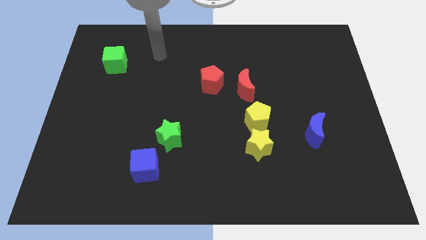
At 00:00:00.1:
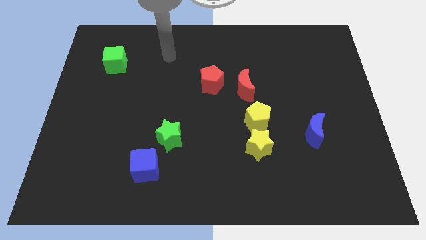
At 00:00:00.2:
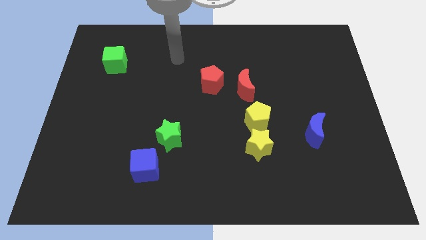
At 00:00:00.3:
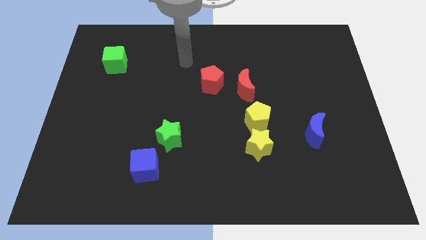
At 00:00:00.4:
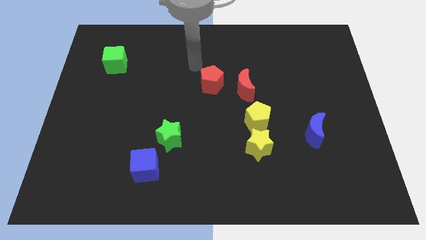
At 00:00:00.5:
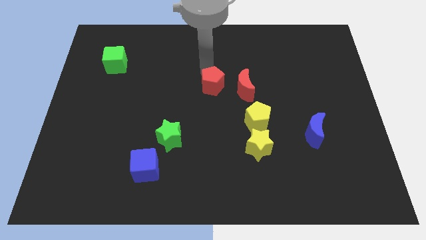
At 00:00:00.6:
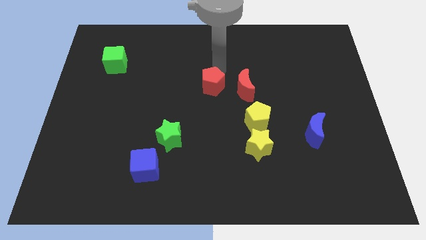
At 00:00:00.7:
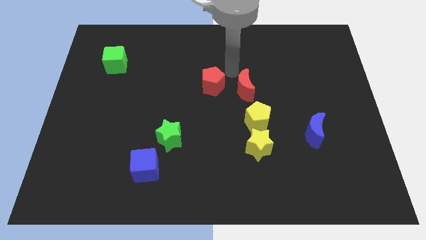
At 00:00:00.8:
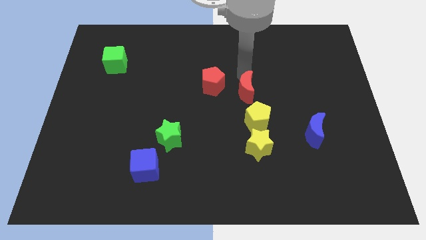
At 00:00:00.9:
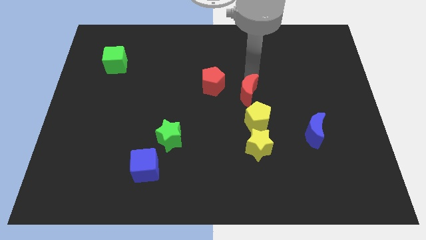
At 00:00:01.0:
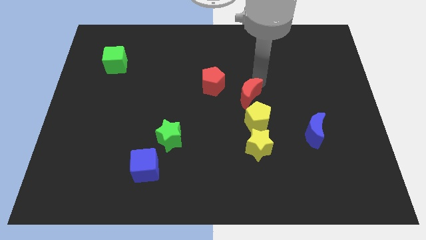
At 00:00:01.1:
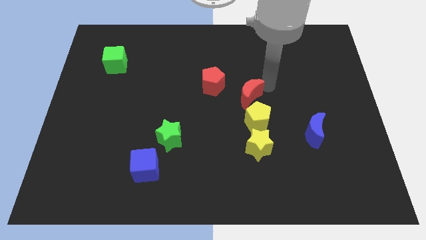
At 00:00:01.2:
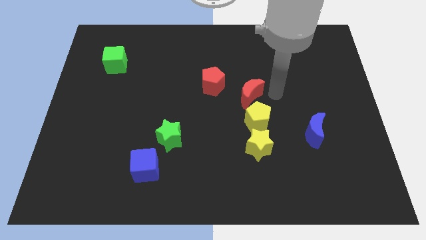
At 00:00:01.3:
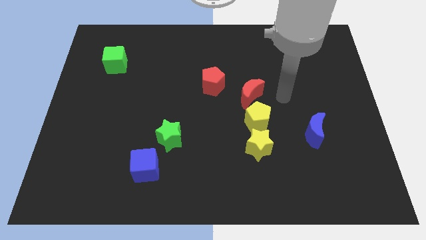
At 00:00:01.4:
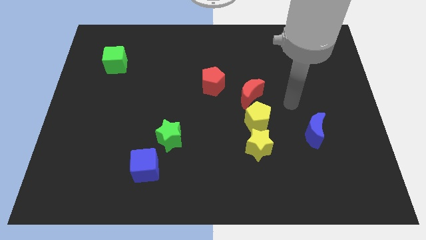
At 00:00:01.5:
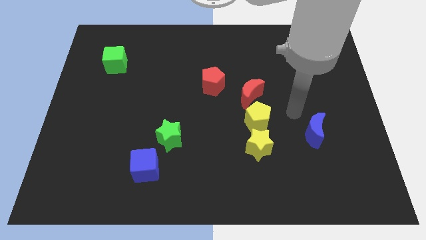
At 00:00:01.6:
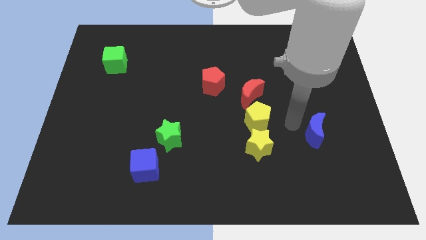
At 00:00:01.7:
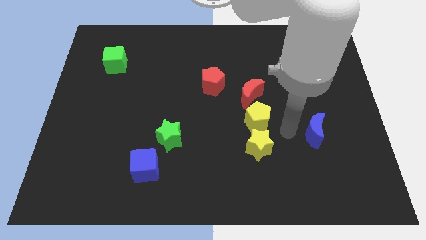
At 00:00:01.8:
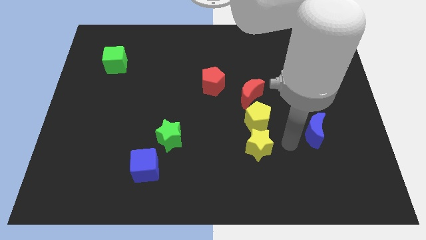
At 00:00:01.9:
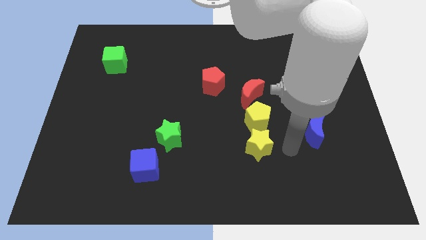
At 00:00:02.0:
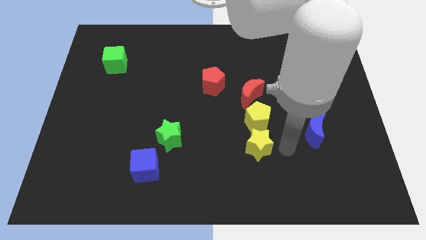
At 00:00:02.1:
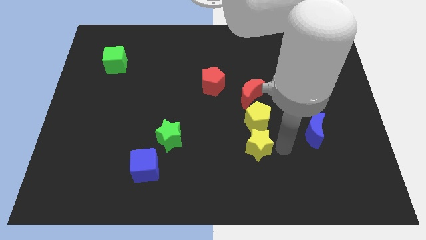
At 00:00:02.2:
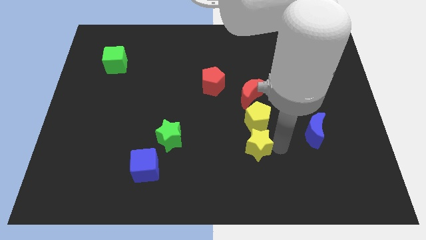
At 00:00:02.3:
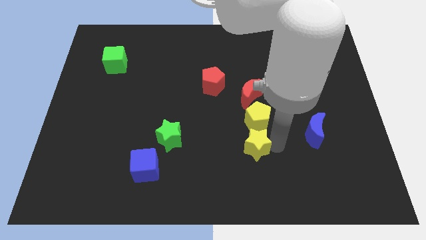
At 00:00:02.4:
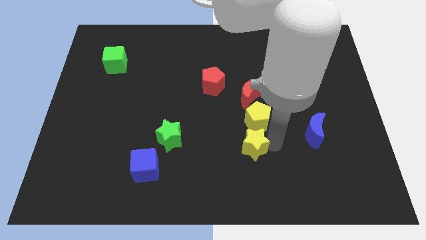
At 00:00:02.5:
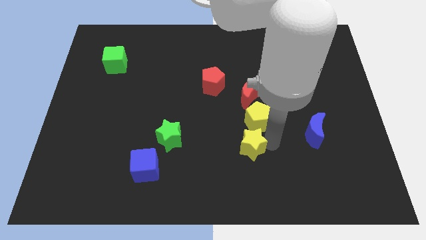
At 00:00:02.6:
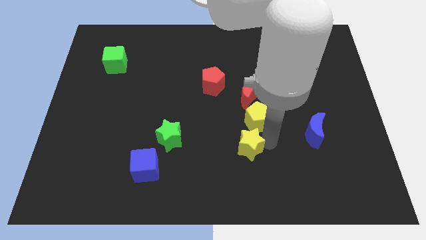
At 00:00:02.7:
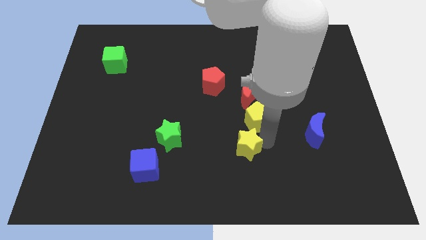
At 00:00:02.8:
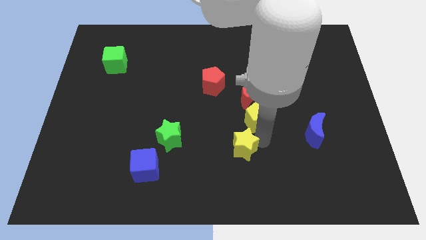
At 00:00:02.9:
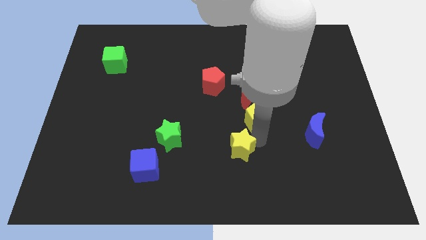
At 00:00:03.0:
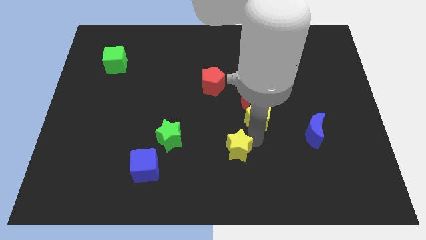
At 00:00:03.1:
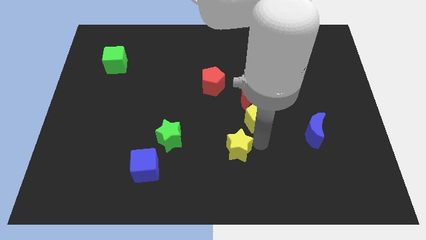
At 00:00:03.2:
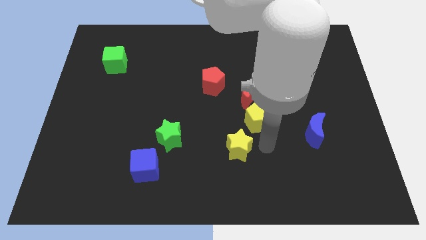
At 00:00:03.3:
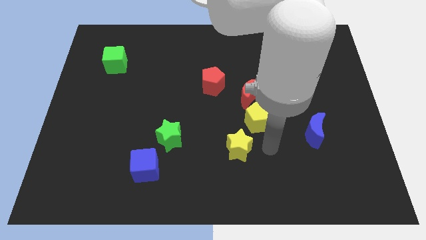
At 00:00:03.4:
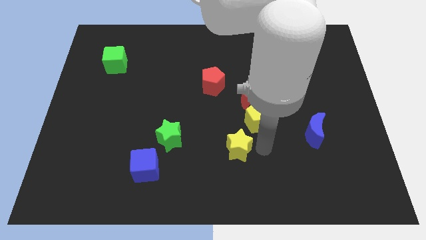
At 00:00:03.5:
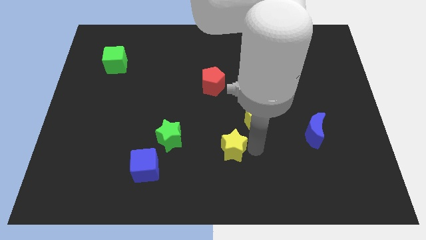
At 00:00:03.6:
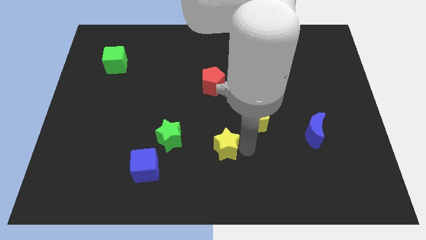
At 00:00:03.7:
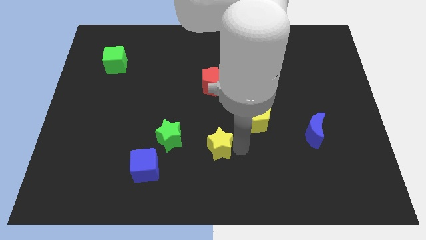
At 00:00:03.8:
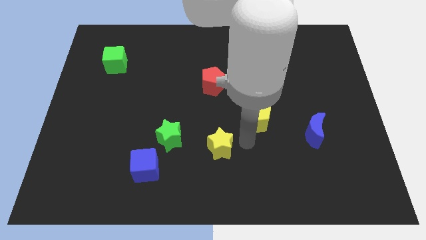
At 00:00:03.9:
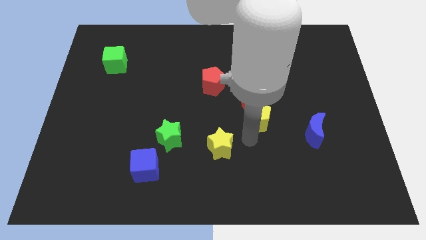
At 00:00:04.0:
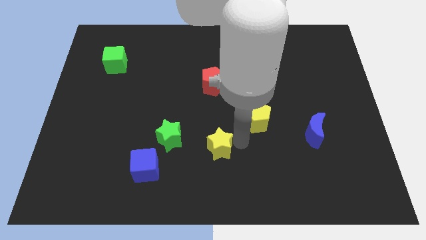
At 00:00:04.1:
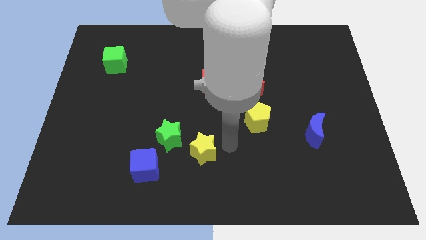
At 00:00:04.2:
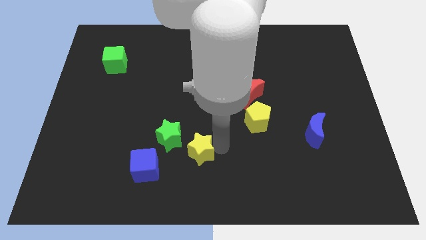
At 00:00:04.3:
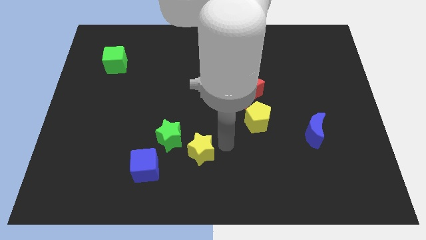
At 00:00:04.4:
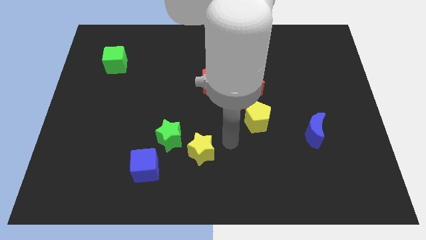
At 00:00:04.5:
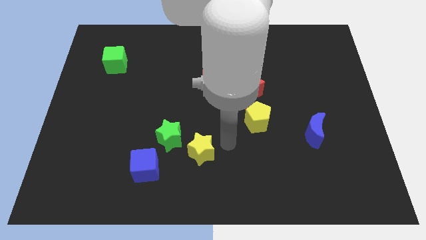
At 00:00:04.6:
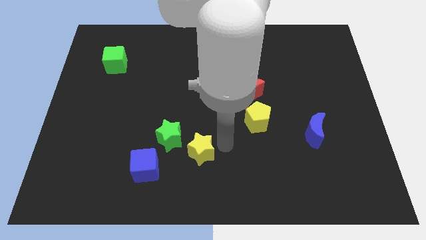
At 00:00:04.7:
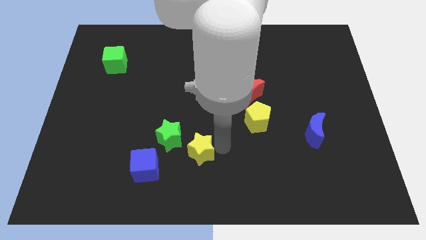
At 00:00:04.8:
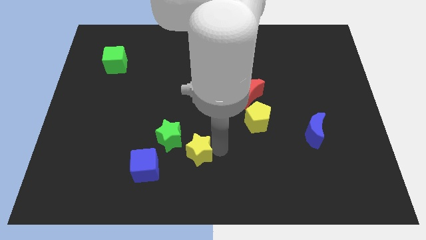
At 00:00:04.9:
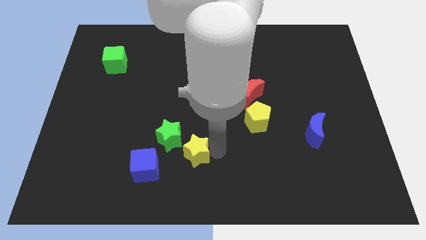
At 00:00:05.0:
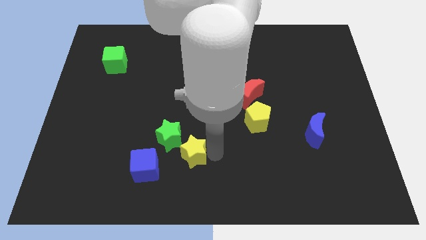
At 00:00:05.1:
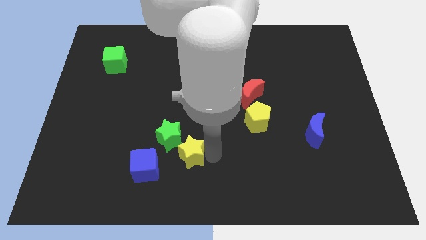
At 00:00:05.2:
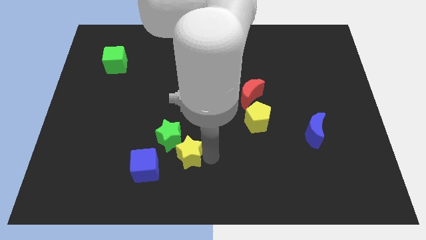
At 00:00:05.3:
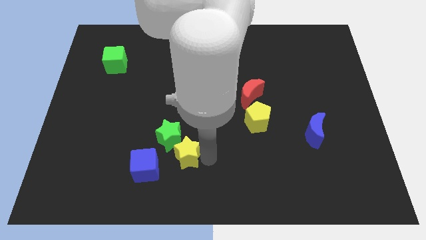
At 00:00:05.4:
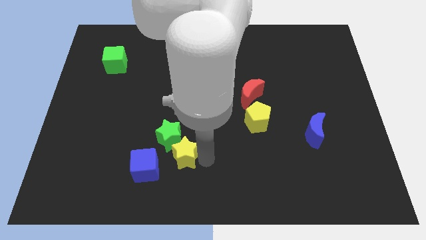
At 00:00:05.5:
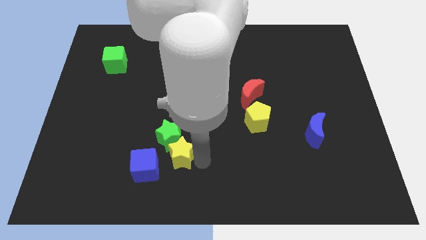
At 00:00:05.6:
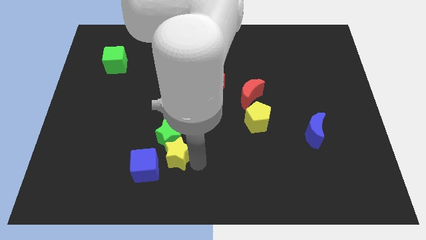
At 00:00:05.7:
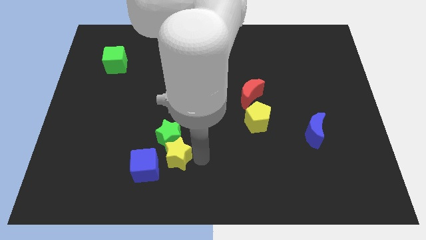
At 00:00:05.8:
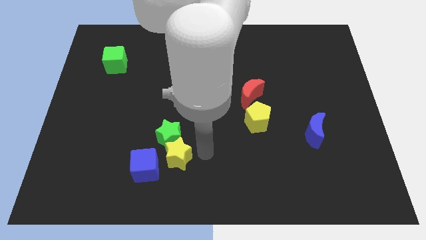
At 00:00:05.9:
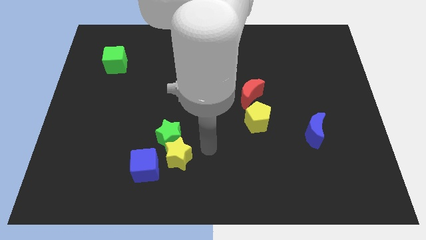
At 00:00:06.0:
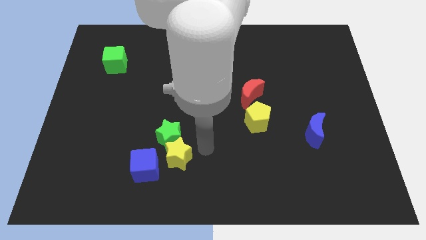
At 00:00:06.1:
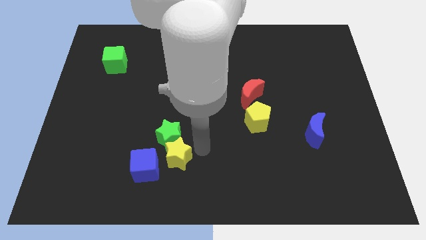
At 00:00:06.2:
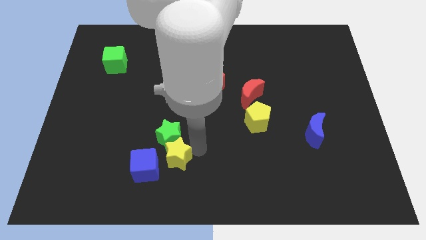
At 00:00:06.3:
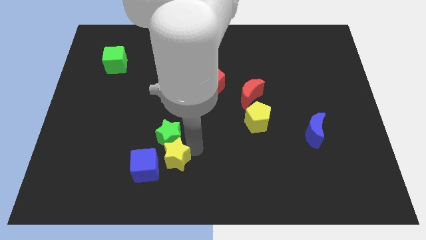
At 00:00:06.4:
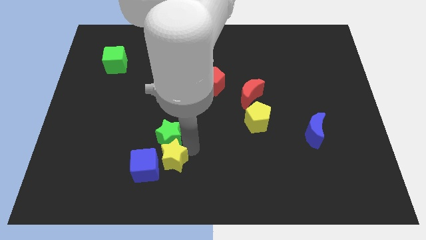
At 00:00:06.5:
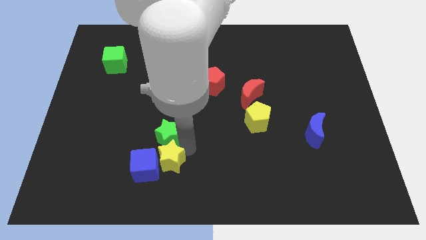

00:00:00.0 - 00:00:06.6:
push the yellow star close to the blue cube

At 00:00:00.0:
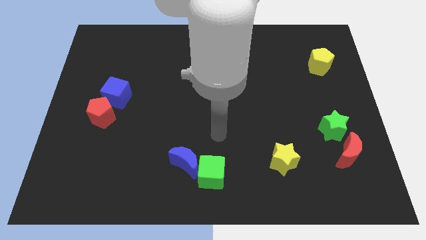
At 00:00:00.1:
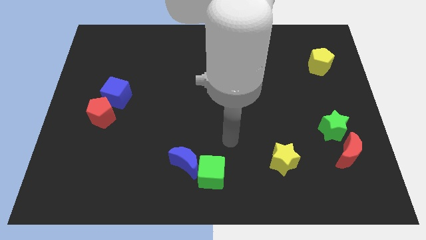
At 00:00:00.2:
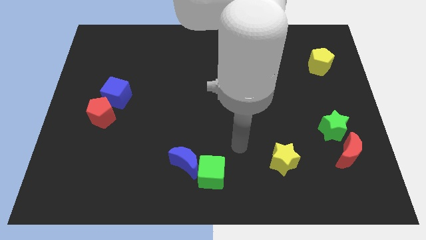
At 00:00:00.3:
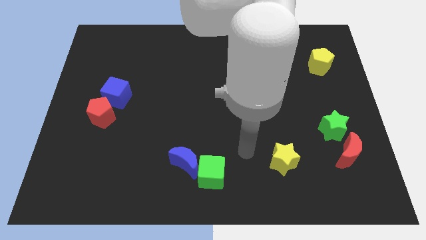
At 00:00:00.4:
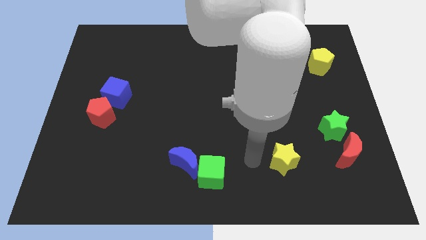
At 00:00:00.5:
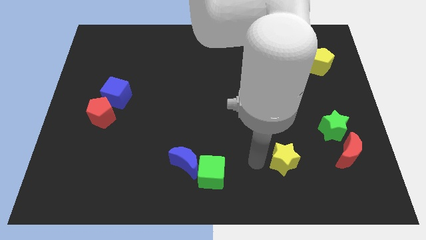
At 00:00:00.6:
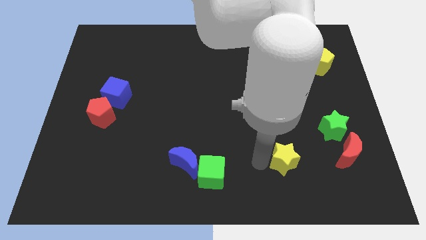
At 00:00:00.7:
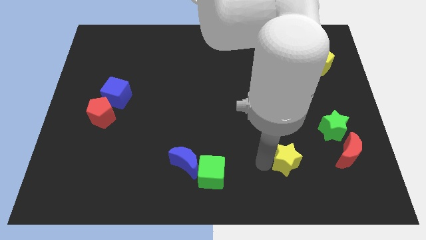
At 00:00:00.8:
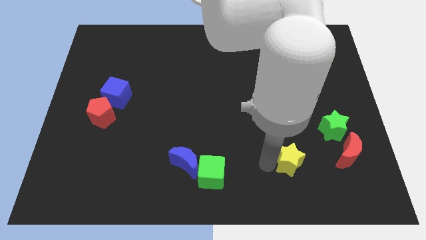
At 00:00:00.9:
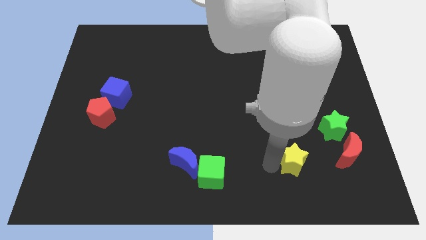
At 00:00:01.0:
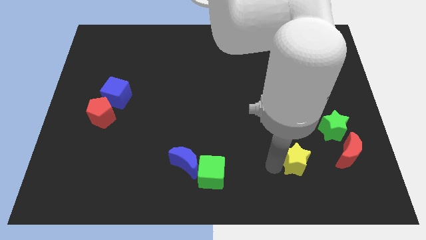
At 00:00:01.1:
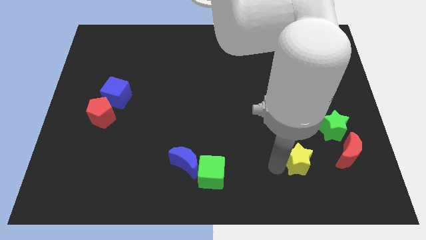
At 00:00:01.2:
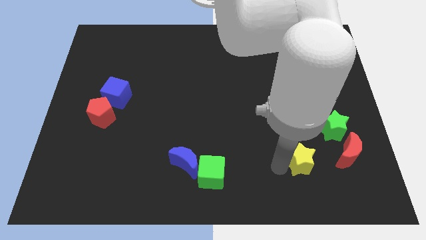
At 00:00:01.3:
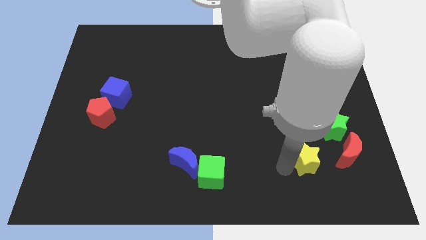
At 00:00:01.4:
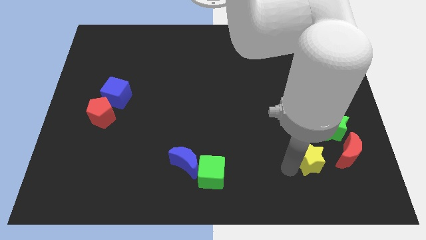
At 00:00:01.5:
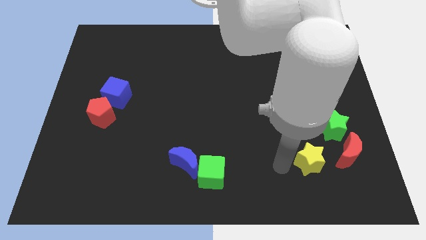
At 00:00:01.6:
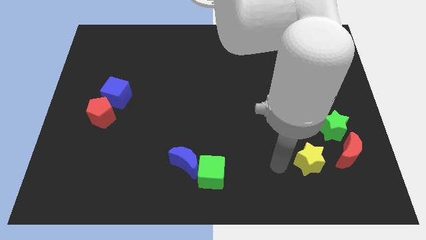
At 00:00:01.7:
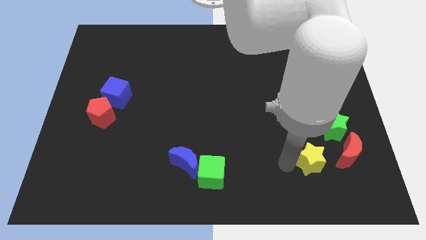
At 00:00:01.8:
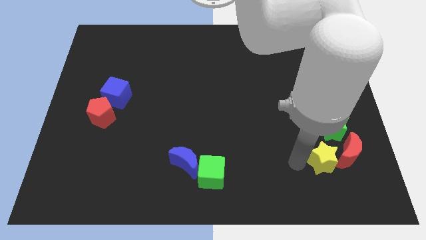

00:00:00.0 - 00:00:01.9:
move the yellow star next to the red moon

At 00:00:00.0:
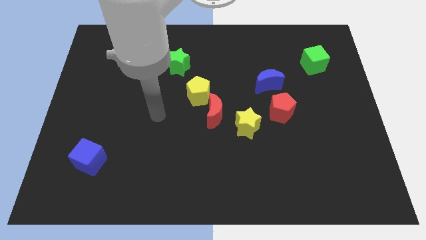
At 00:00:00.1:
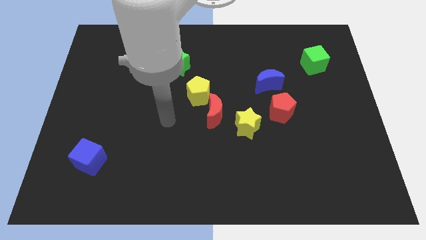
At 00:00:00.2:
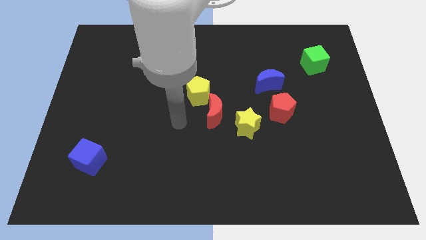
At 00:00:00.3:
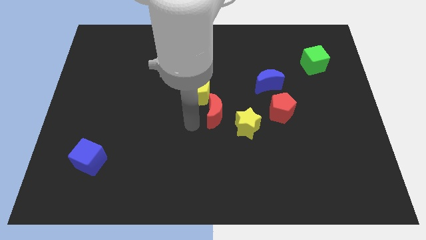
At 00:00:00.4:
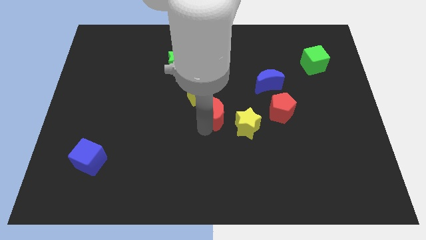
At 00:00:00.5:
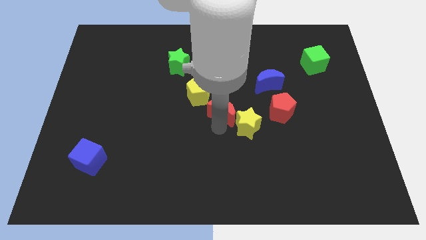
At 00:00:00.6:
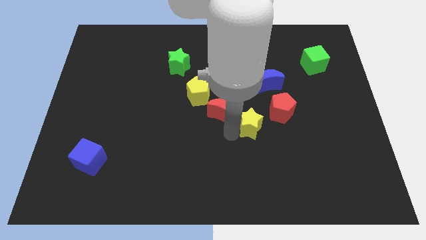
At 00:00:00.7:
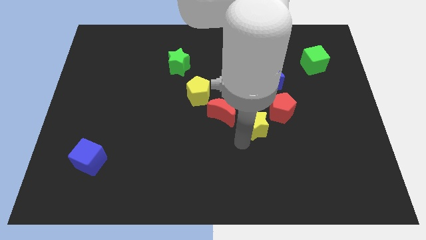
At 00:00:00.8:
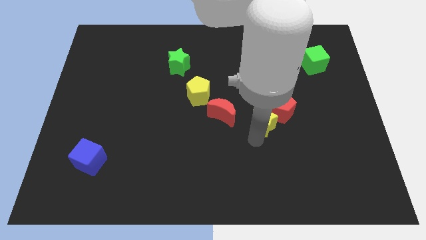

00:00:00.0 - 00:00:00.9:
move the red pentagon close to the yellow star
